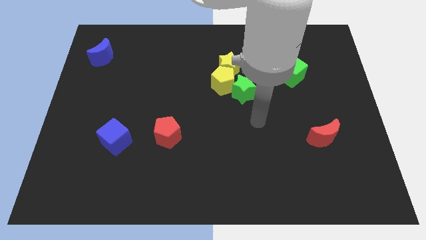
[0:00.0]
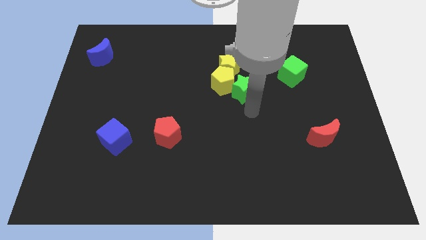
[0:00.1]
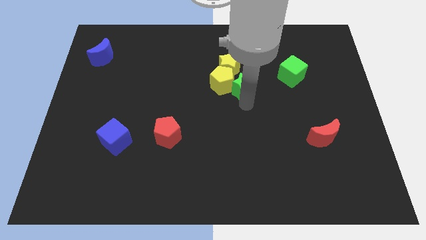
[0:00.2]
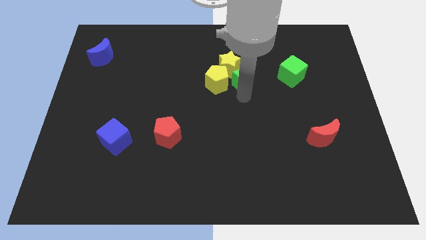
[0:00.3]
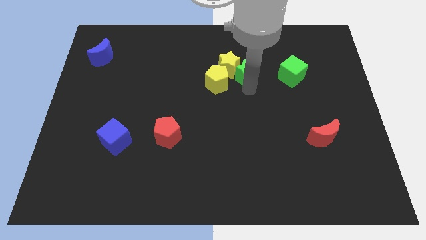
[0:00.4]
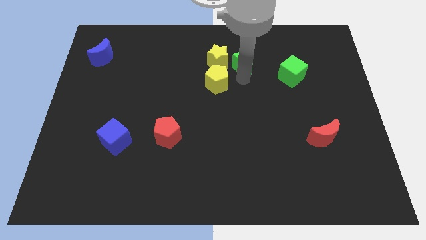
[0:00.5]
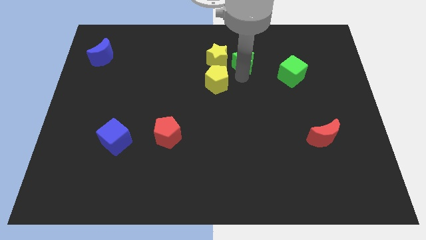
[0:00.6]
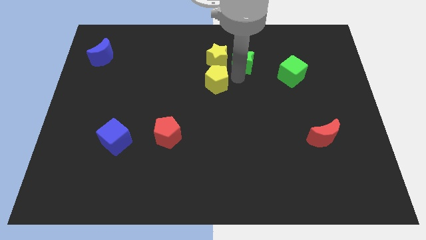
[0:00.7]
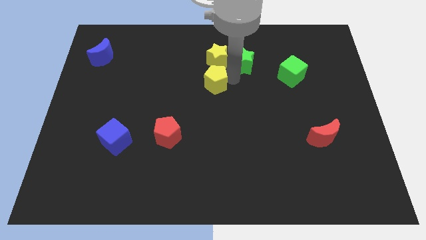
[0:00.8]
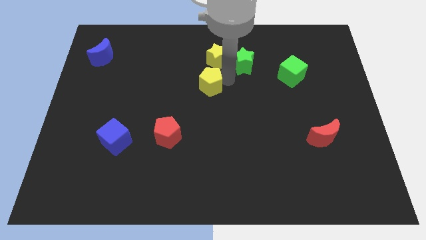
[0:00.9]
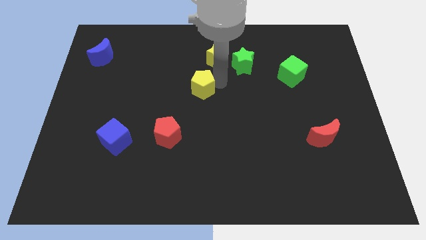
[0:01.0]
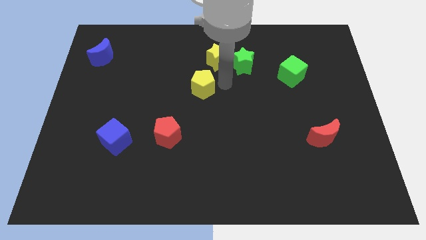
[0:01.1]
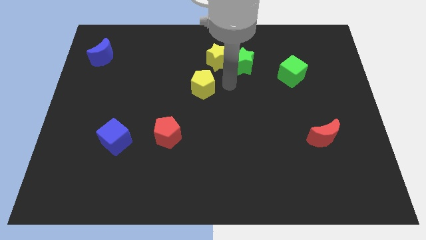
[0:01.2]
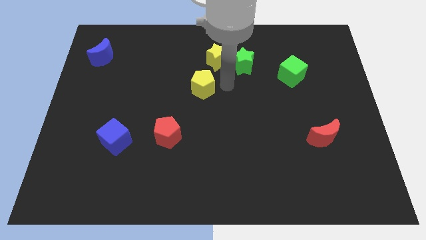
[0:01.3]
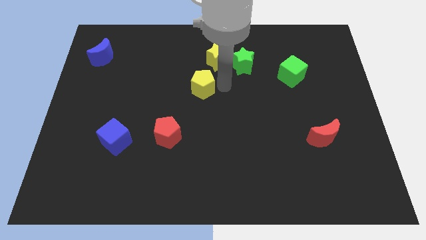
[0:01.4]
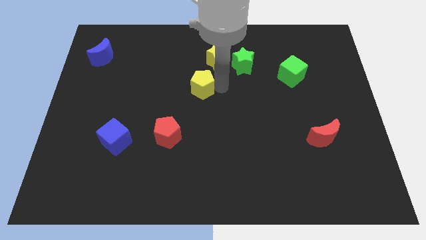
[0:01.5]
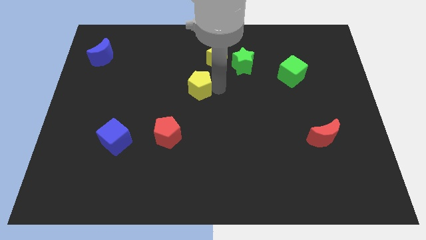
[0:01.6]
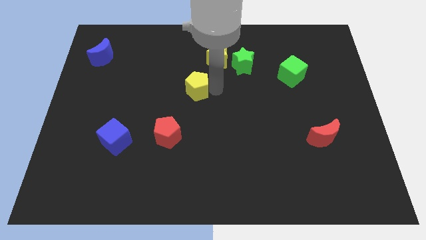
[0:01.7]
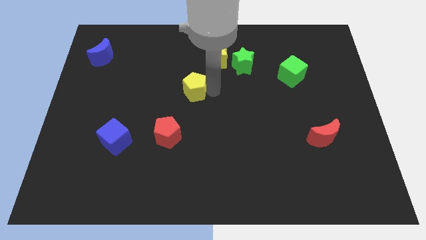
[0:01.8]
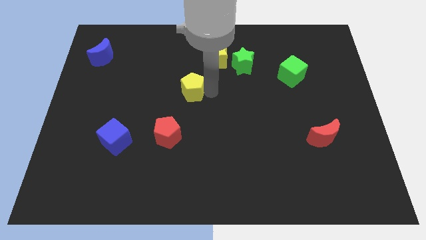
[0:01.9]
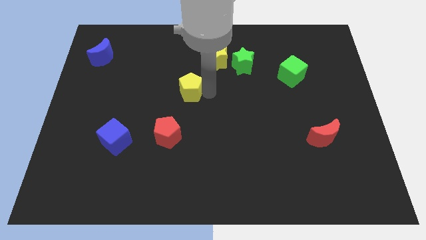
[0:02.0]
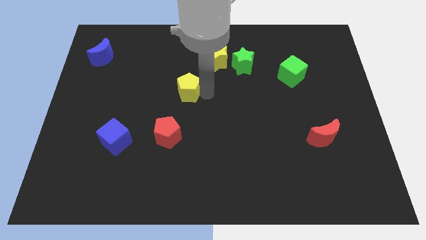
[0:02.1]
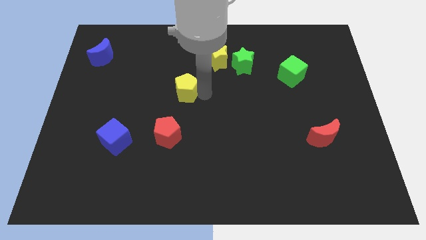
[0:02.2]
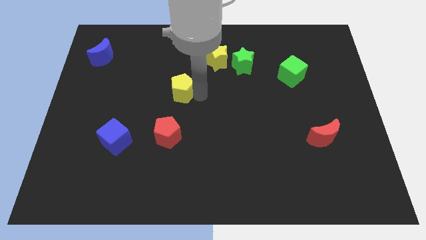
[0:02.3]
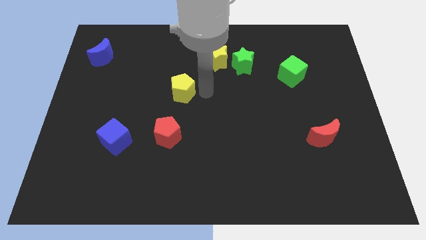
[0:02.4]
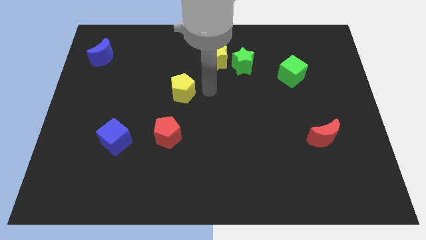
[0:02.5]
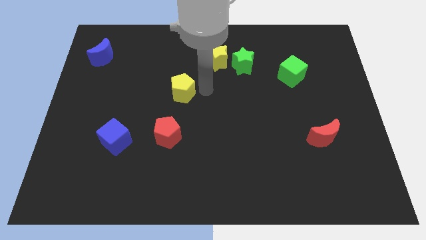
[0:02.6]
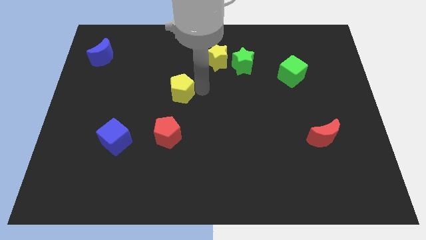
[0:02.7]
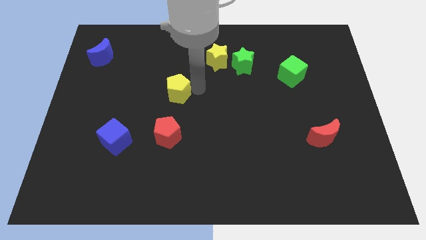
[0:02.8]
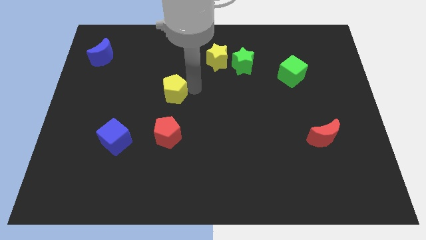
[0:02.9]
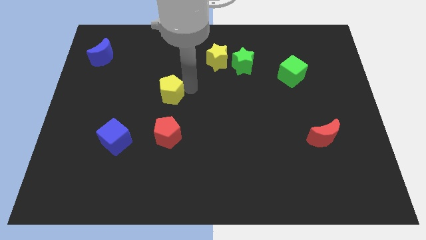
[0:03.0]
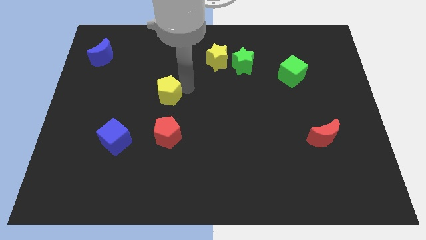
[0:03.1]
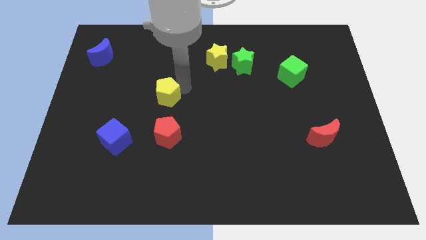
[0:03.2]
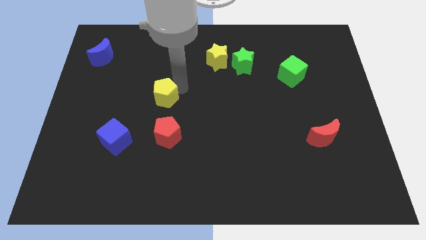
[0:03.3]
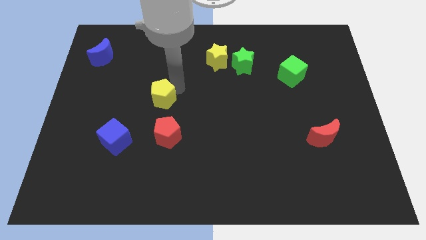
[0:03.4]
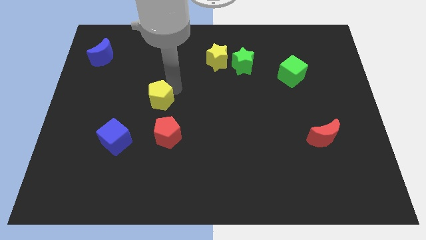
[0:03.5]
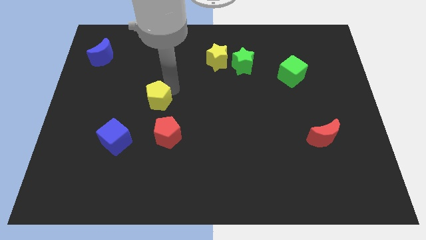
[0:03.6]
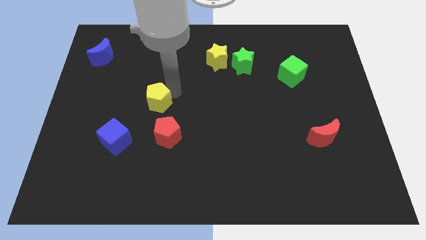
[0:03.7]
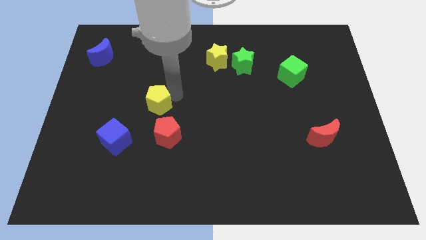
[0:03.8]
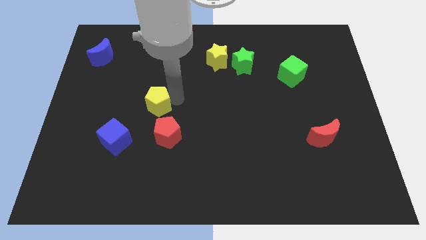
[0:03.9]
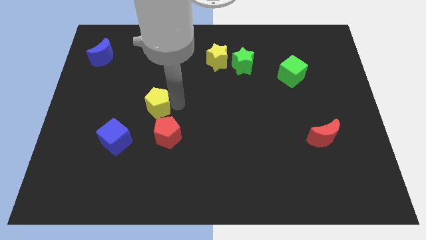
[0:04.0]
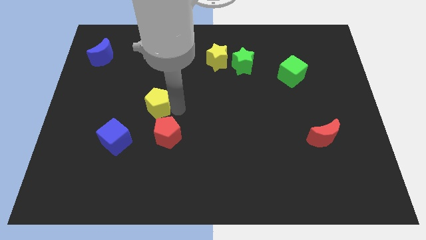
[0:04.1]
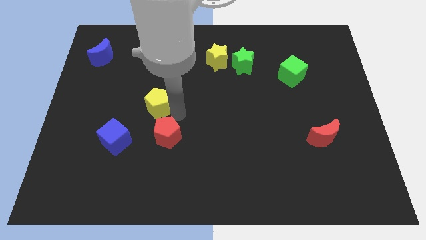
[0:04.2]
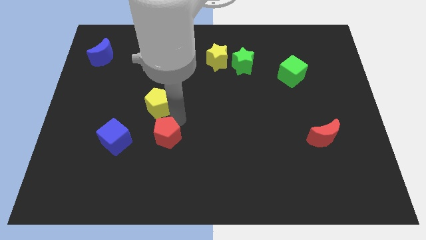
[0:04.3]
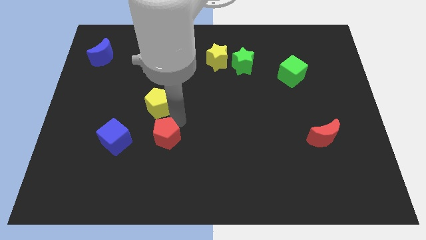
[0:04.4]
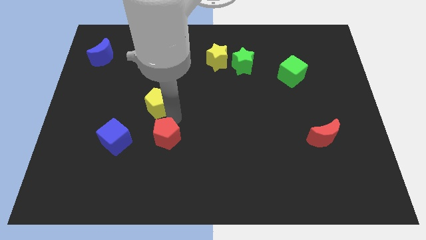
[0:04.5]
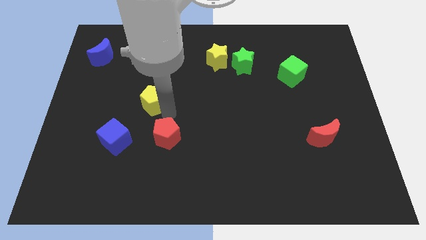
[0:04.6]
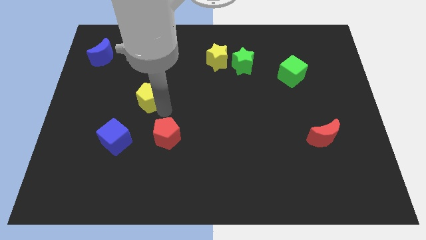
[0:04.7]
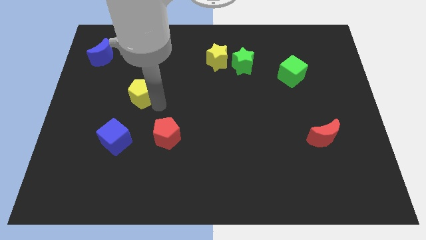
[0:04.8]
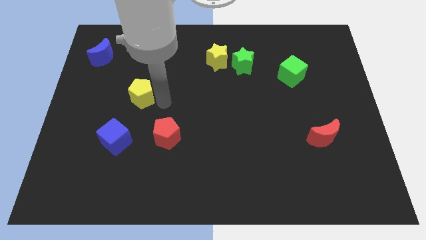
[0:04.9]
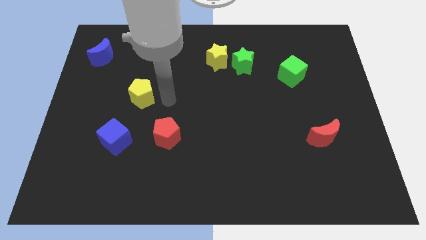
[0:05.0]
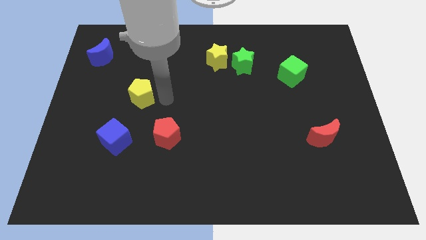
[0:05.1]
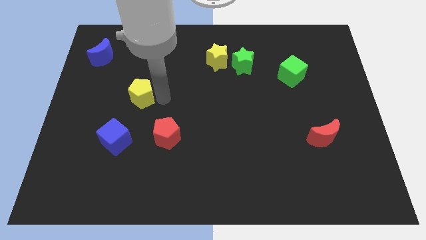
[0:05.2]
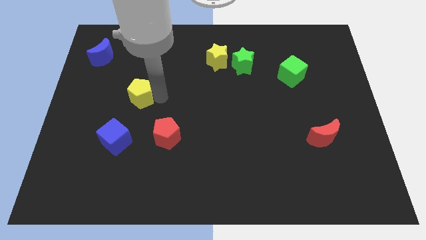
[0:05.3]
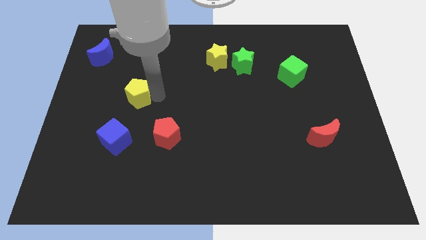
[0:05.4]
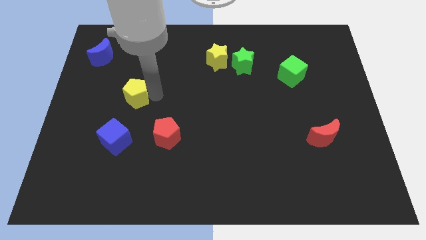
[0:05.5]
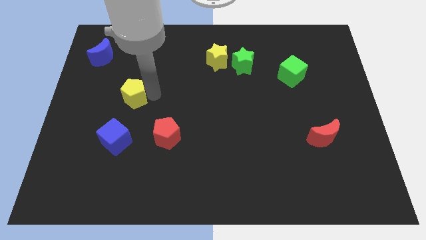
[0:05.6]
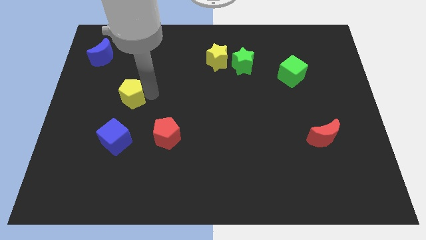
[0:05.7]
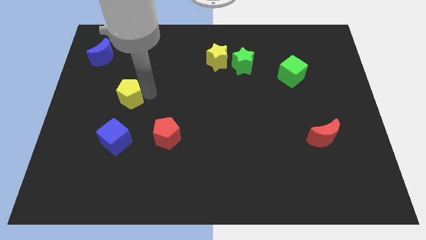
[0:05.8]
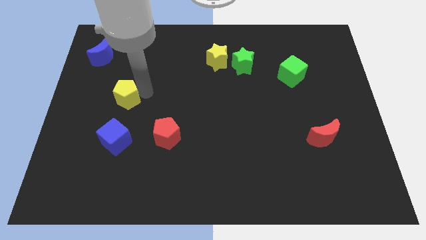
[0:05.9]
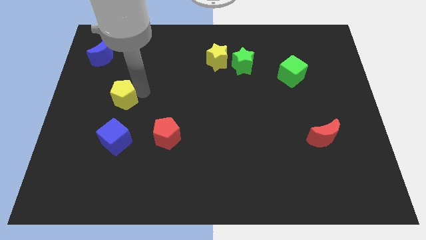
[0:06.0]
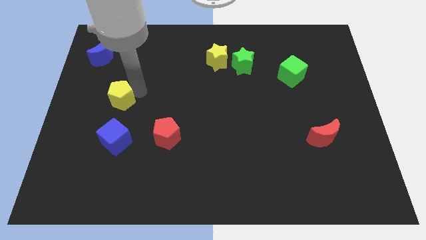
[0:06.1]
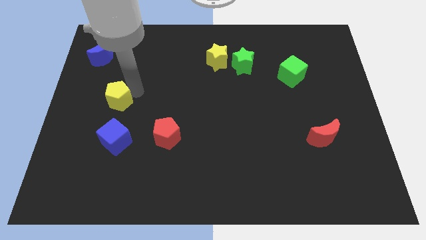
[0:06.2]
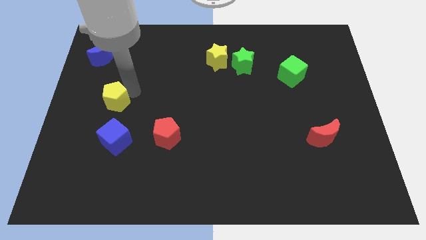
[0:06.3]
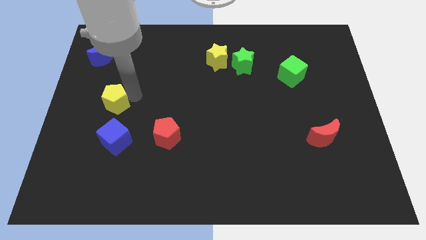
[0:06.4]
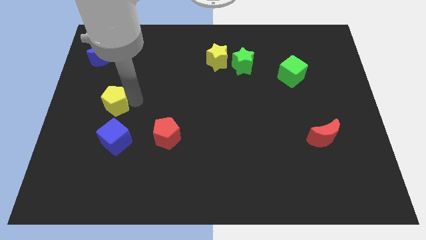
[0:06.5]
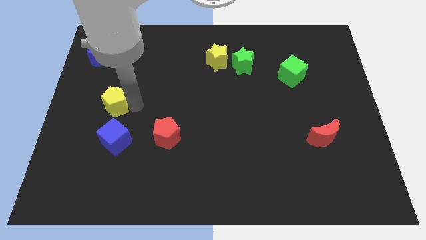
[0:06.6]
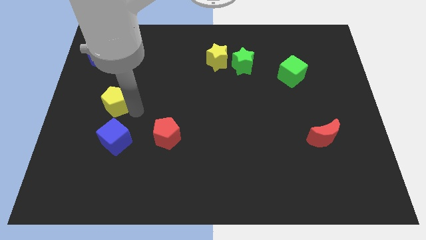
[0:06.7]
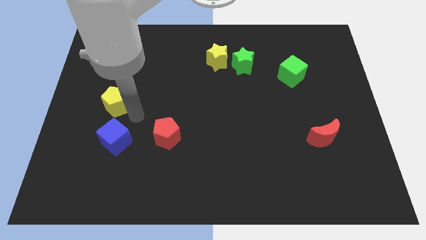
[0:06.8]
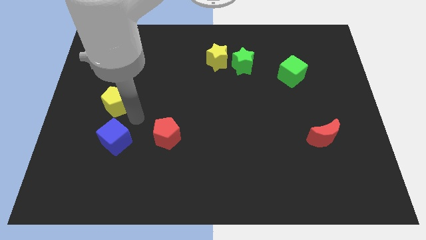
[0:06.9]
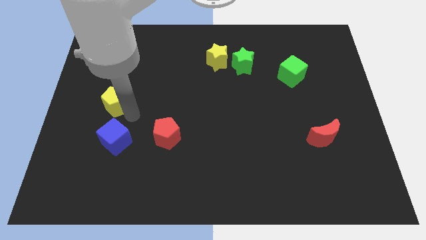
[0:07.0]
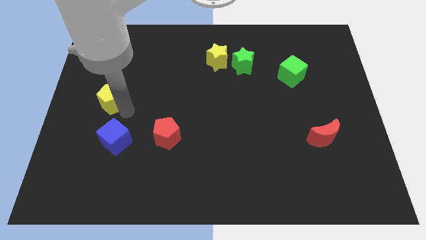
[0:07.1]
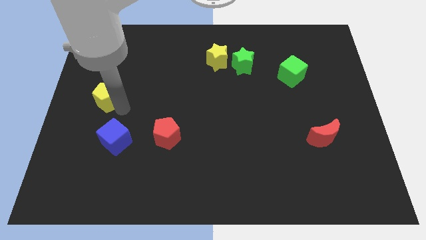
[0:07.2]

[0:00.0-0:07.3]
put the yellow pentagon to the center left
